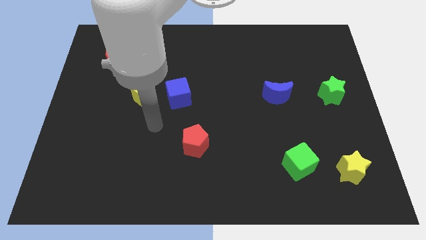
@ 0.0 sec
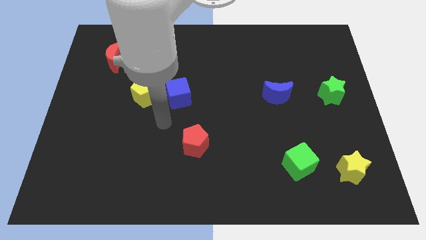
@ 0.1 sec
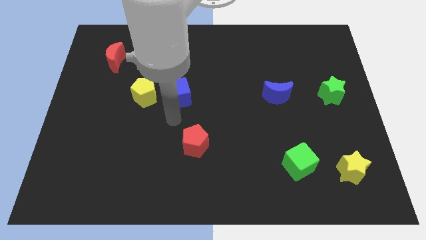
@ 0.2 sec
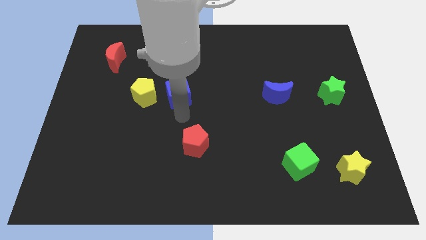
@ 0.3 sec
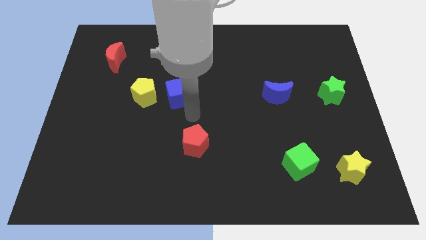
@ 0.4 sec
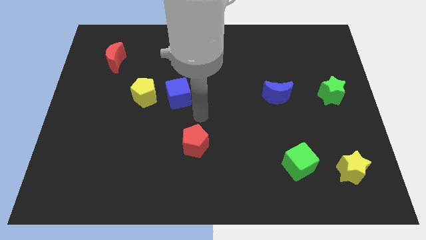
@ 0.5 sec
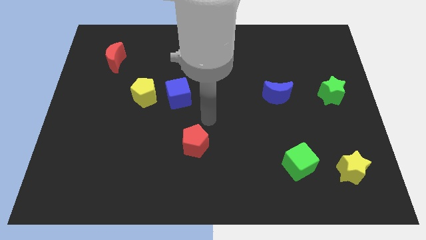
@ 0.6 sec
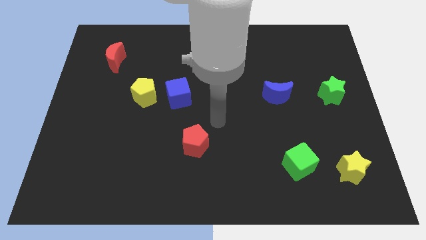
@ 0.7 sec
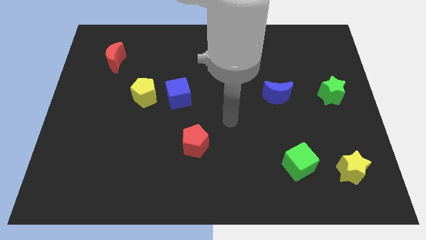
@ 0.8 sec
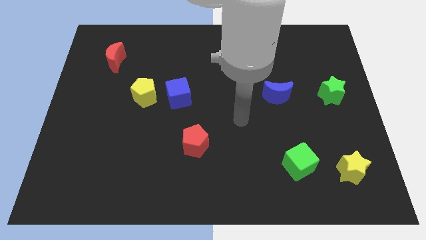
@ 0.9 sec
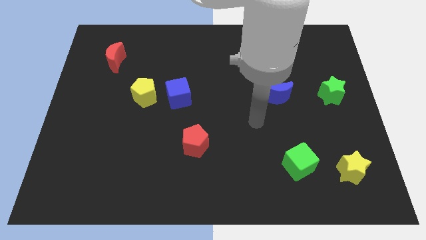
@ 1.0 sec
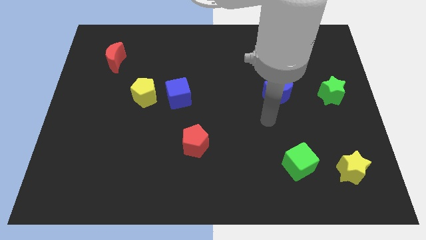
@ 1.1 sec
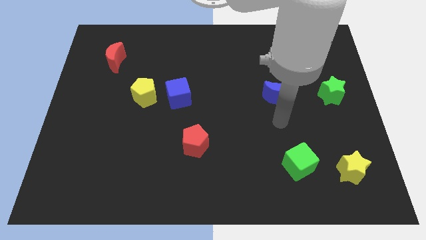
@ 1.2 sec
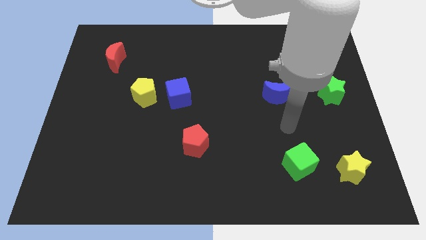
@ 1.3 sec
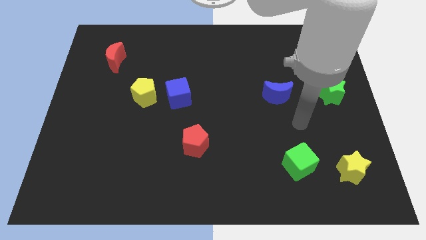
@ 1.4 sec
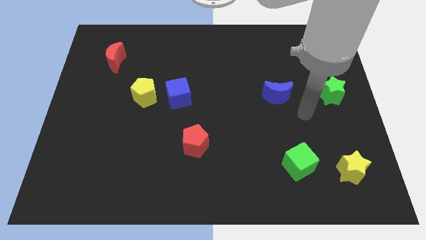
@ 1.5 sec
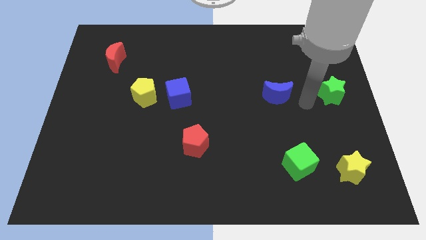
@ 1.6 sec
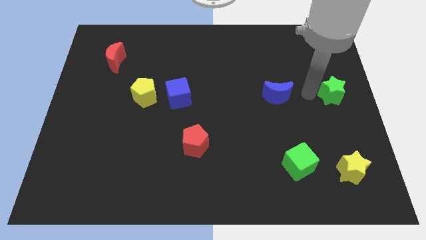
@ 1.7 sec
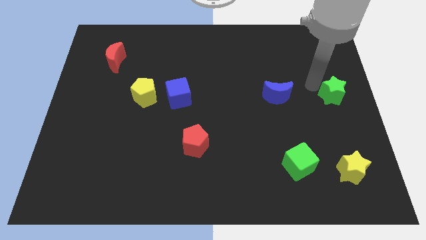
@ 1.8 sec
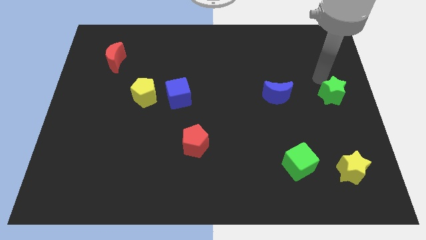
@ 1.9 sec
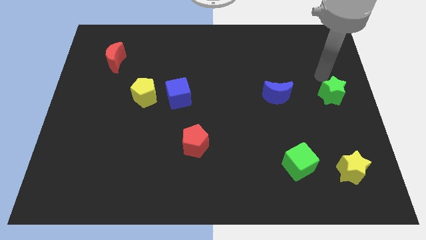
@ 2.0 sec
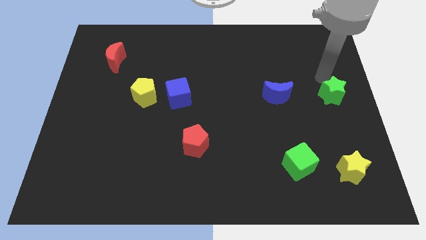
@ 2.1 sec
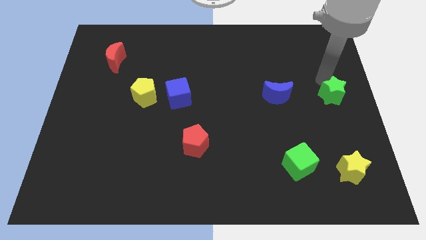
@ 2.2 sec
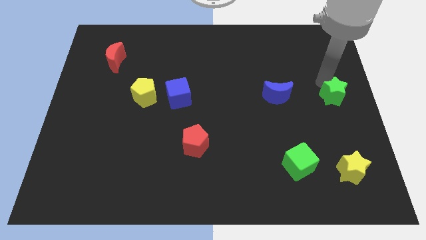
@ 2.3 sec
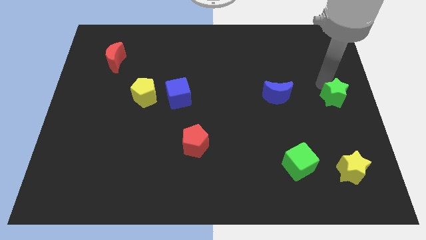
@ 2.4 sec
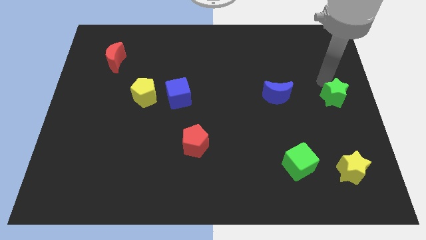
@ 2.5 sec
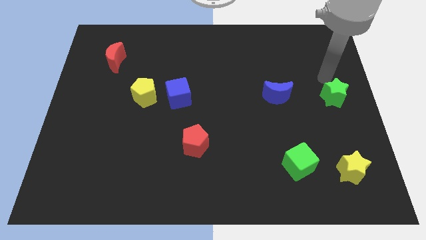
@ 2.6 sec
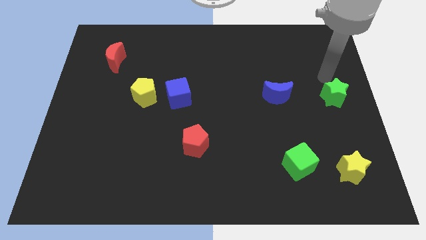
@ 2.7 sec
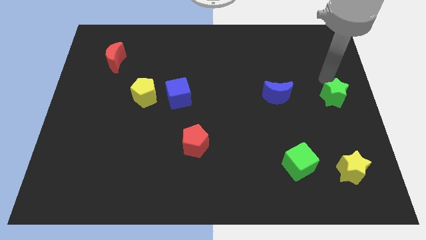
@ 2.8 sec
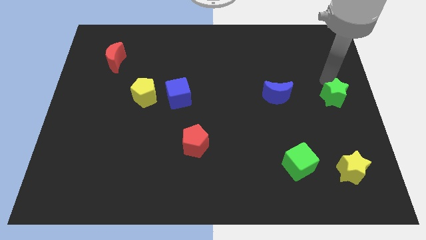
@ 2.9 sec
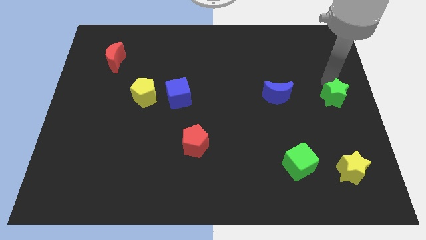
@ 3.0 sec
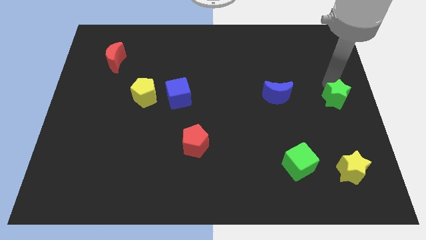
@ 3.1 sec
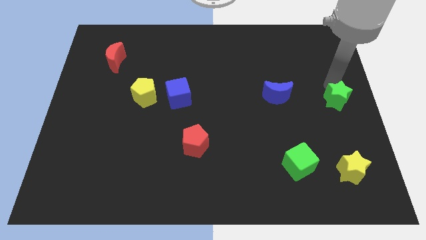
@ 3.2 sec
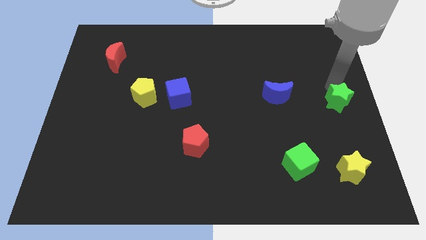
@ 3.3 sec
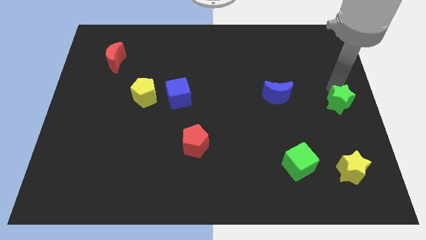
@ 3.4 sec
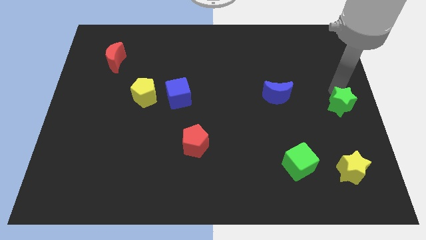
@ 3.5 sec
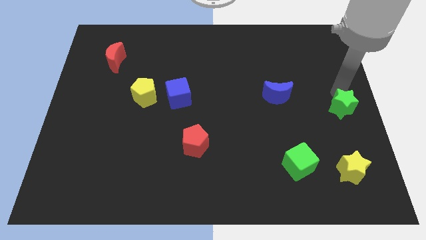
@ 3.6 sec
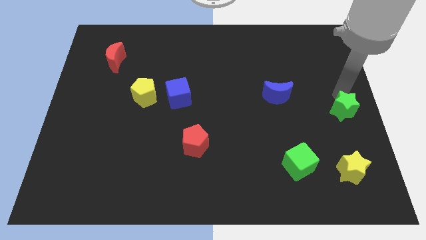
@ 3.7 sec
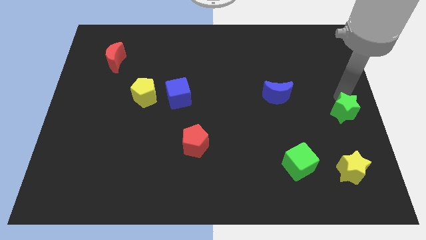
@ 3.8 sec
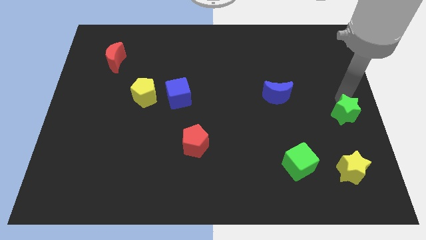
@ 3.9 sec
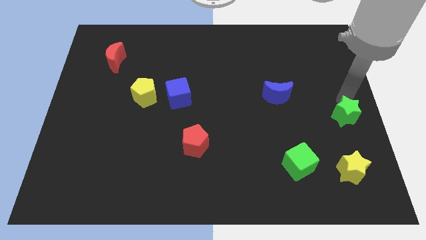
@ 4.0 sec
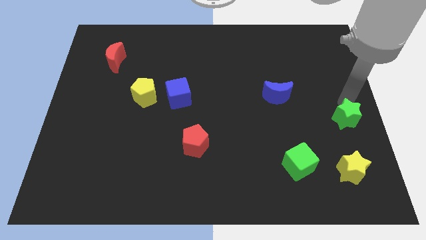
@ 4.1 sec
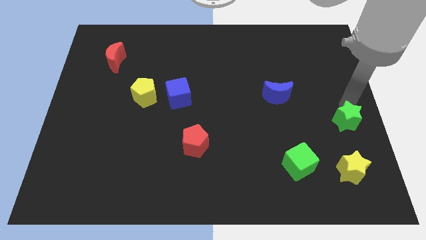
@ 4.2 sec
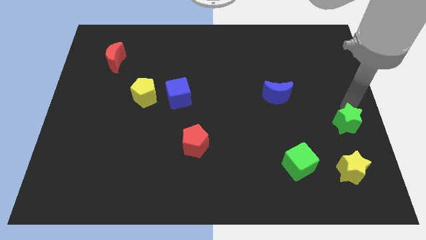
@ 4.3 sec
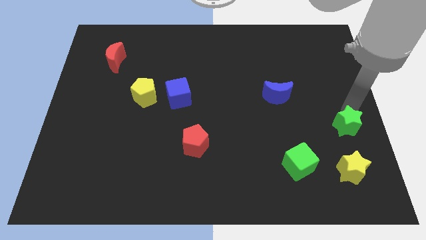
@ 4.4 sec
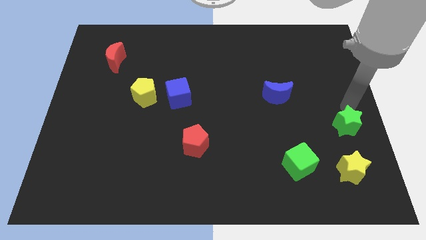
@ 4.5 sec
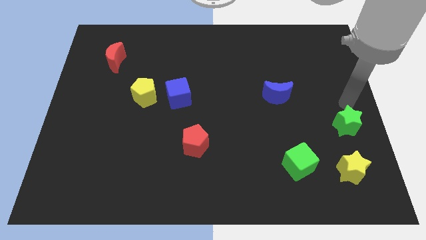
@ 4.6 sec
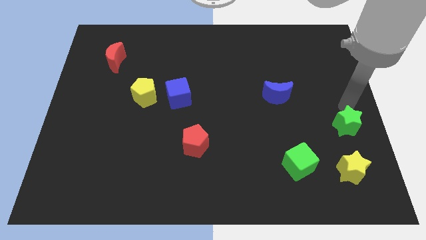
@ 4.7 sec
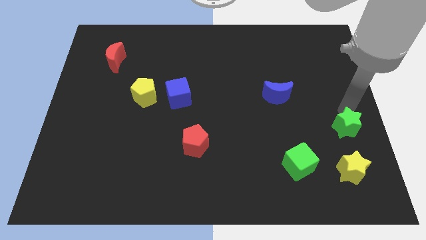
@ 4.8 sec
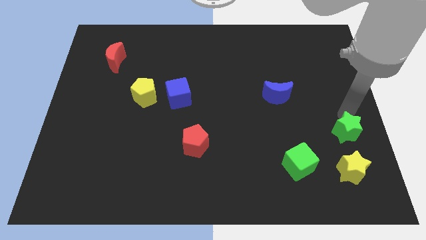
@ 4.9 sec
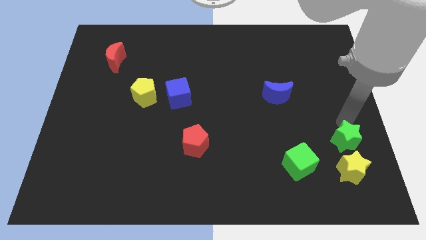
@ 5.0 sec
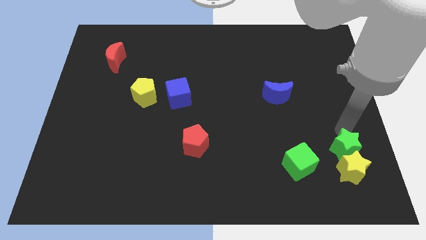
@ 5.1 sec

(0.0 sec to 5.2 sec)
push the green star next to the yellow star

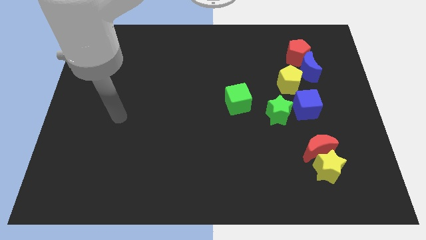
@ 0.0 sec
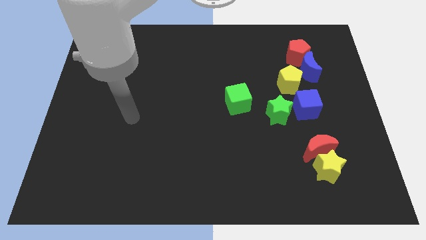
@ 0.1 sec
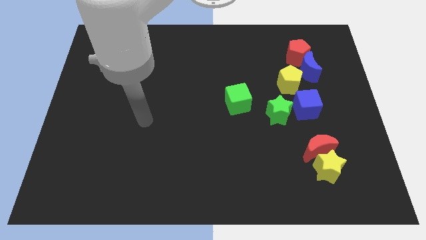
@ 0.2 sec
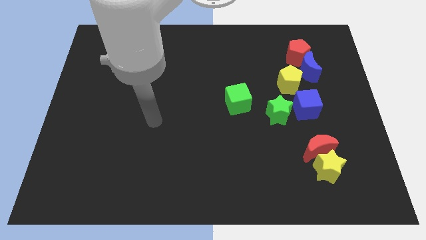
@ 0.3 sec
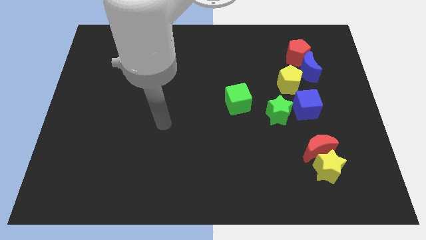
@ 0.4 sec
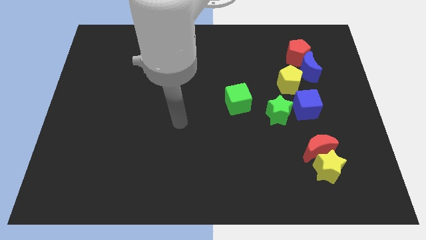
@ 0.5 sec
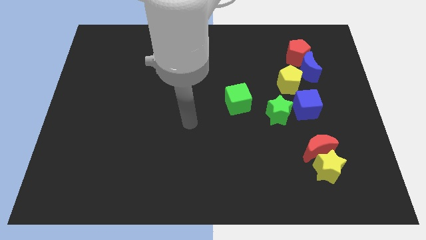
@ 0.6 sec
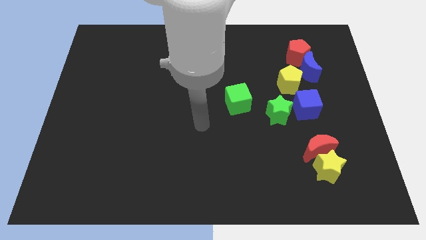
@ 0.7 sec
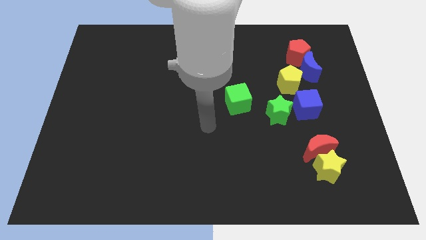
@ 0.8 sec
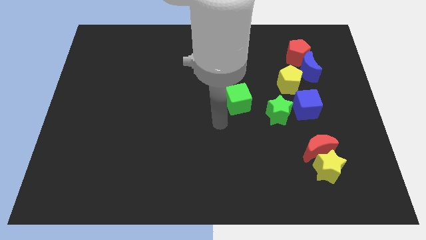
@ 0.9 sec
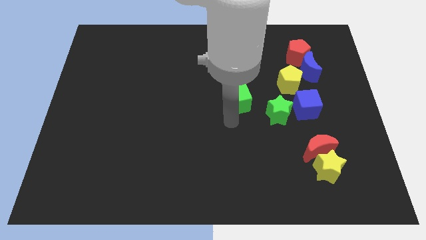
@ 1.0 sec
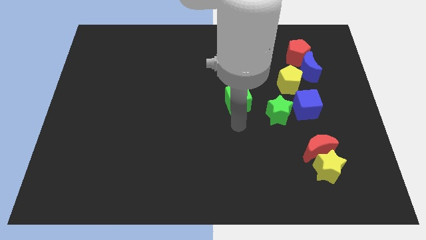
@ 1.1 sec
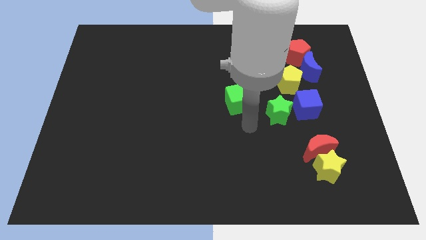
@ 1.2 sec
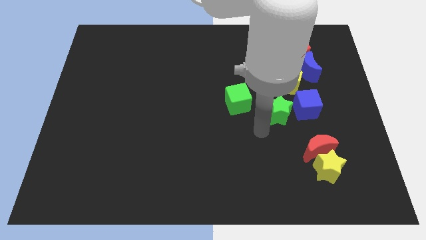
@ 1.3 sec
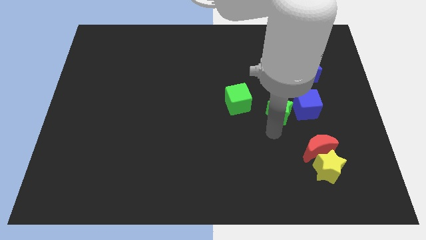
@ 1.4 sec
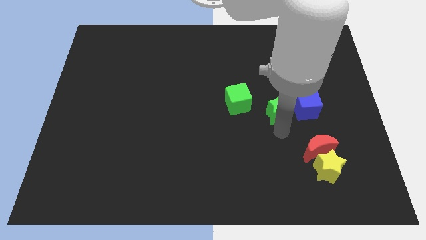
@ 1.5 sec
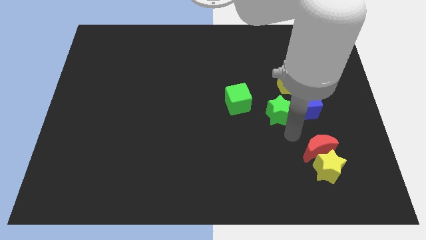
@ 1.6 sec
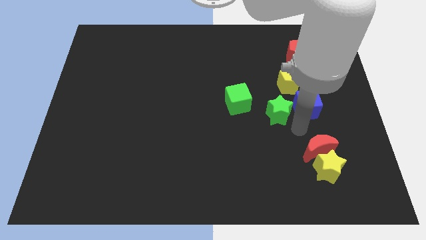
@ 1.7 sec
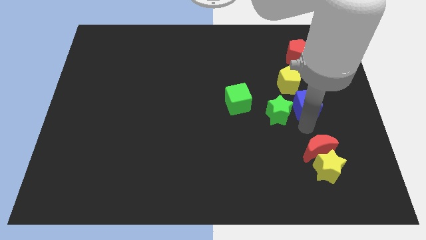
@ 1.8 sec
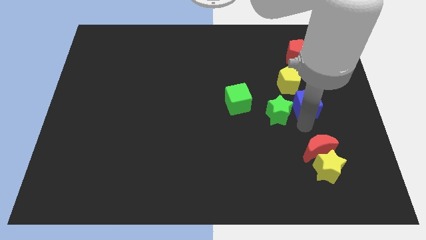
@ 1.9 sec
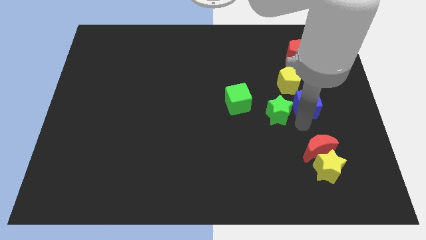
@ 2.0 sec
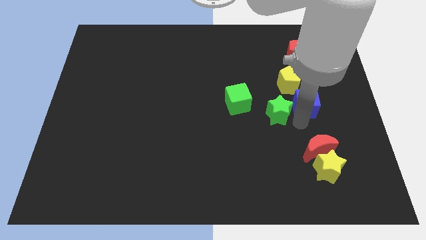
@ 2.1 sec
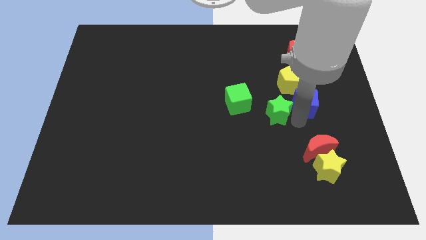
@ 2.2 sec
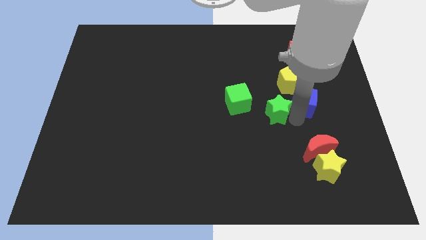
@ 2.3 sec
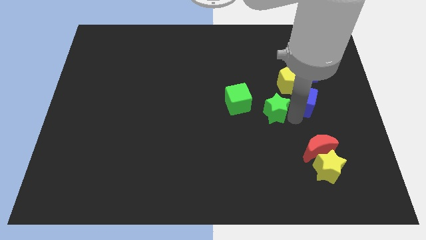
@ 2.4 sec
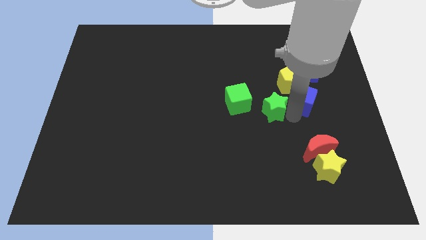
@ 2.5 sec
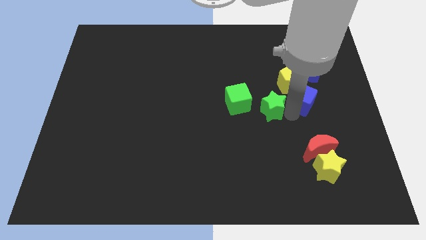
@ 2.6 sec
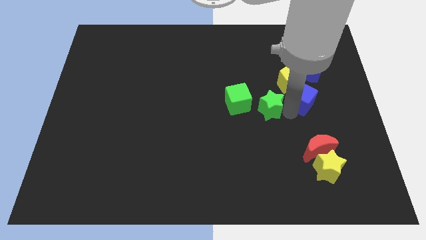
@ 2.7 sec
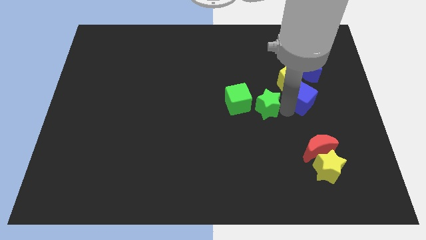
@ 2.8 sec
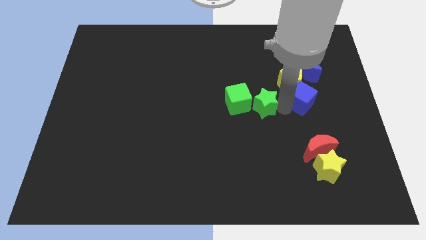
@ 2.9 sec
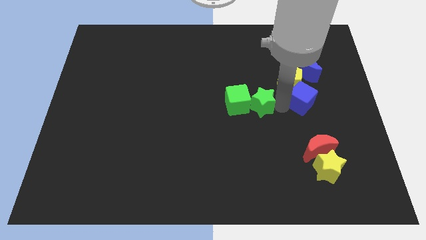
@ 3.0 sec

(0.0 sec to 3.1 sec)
push the green star next to the green cube
